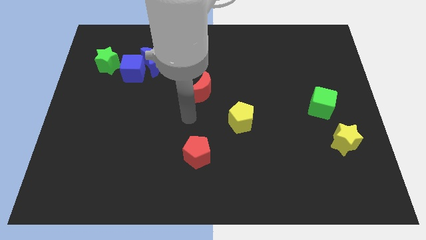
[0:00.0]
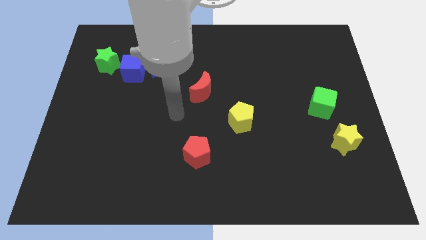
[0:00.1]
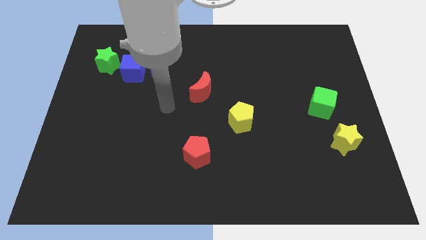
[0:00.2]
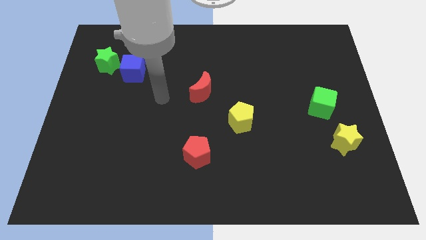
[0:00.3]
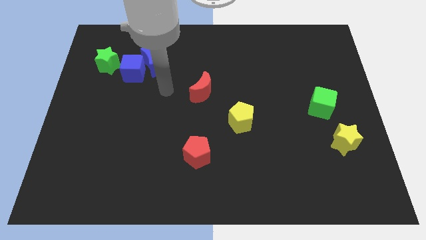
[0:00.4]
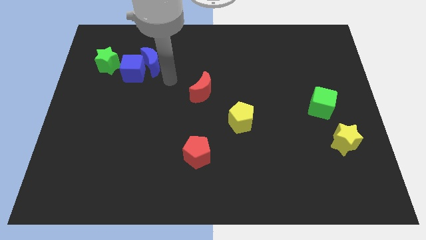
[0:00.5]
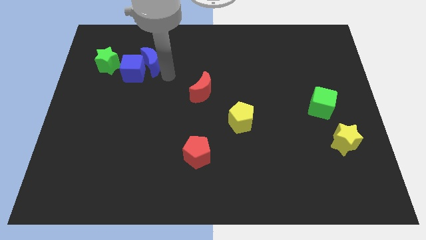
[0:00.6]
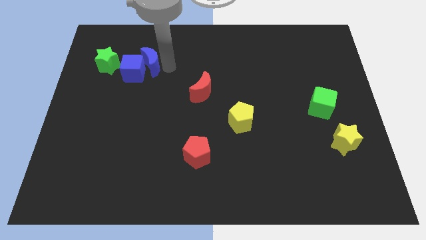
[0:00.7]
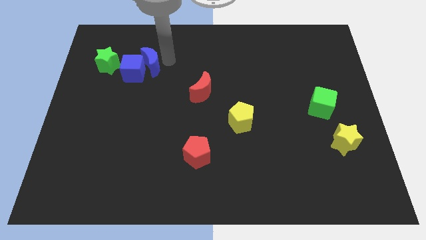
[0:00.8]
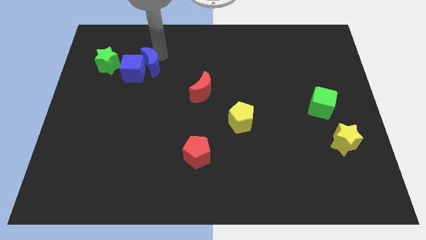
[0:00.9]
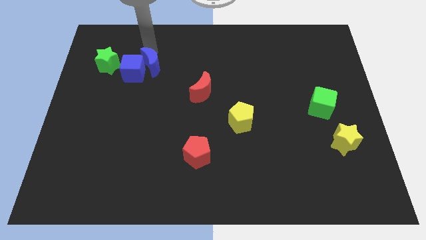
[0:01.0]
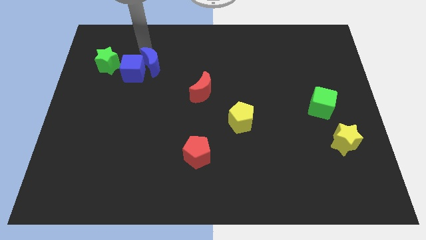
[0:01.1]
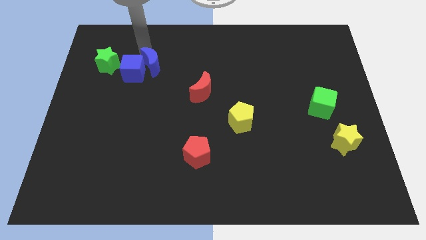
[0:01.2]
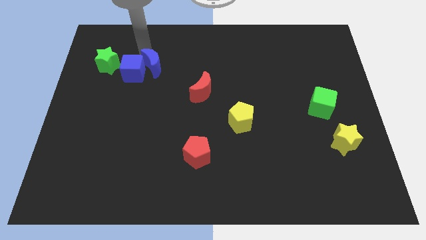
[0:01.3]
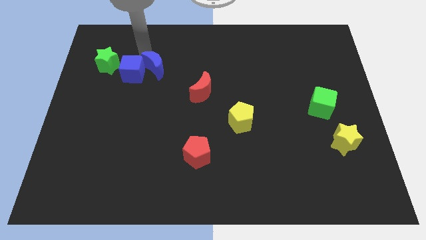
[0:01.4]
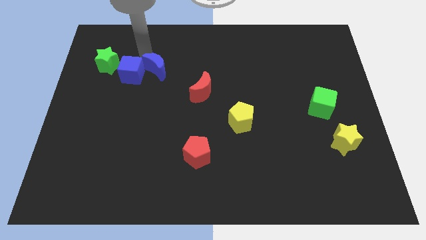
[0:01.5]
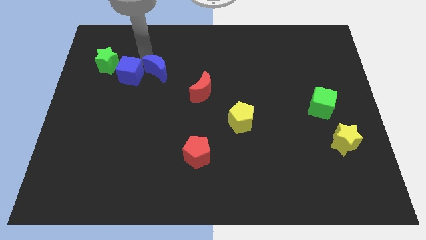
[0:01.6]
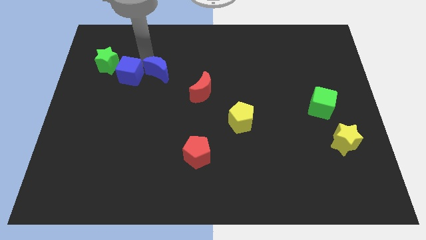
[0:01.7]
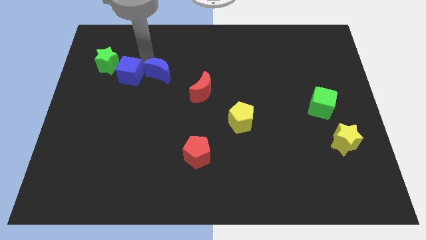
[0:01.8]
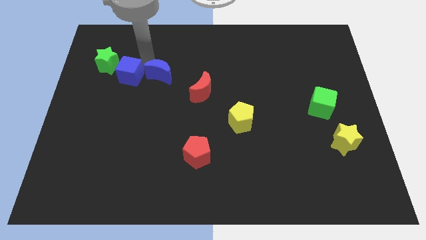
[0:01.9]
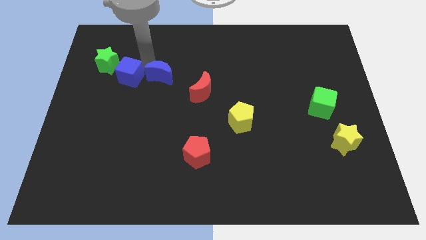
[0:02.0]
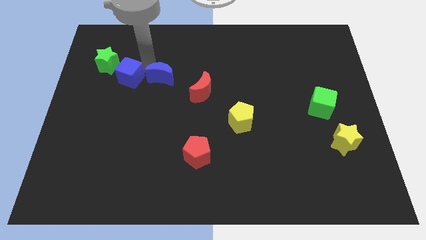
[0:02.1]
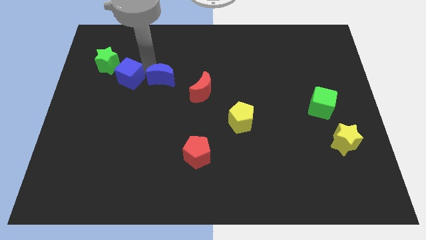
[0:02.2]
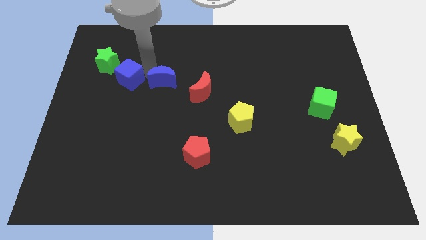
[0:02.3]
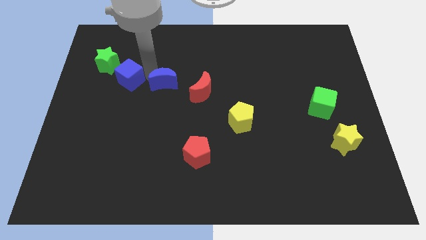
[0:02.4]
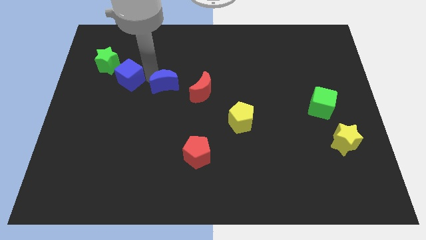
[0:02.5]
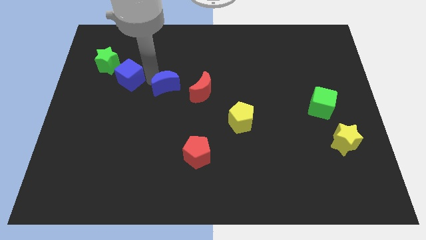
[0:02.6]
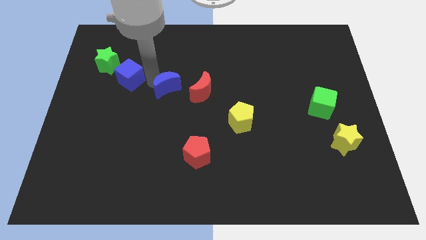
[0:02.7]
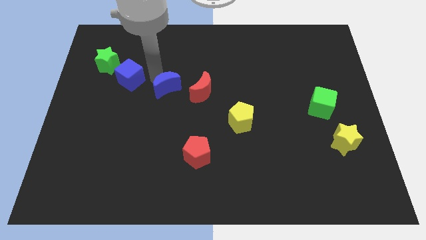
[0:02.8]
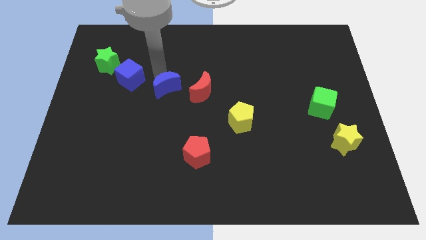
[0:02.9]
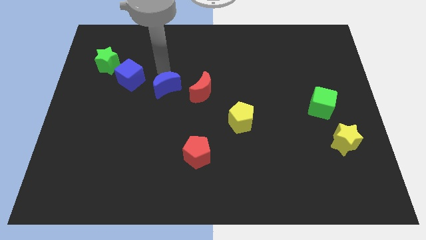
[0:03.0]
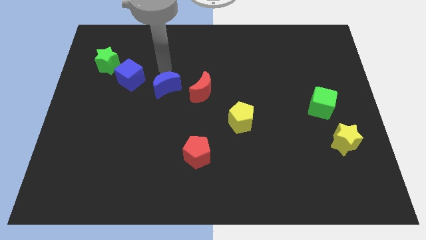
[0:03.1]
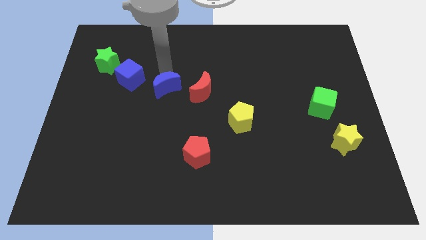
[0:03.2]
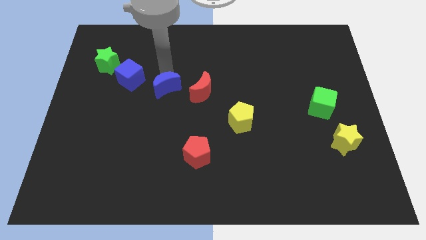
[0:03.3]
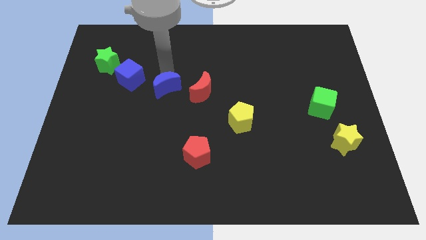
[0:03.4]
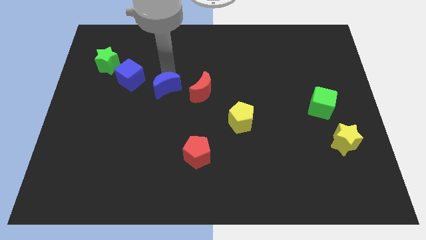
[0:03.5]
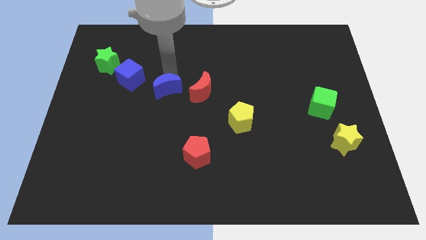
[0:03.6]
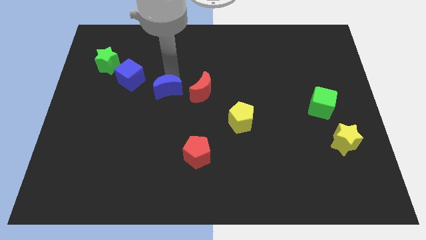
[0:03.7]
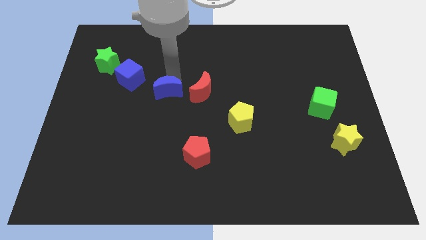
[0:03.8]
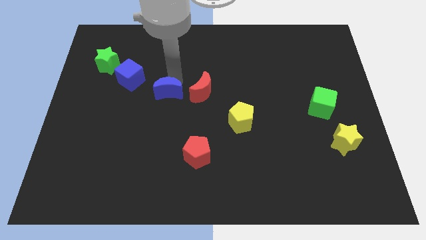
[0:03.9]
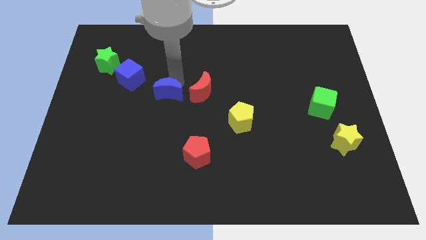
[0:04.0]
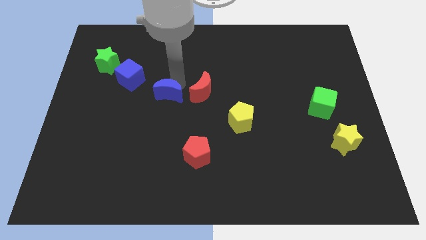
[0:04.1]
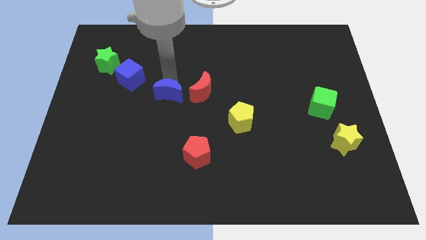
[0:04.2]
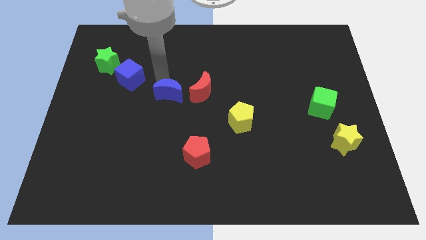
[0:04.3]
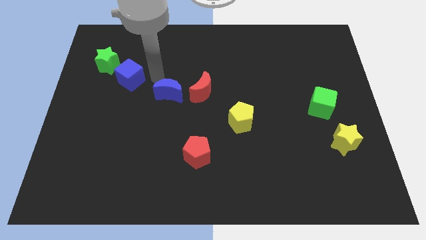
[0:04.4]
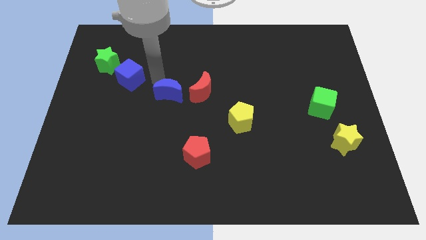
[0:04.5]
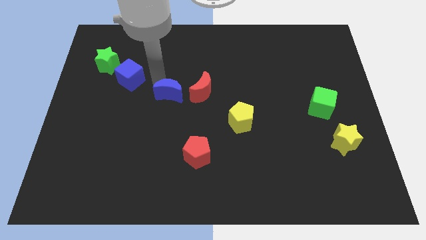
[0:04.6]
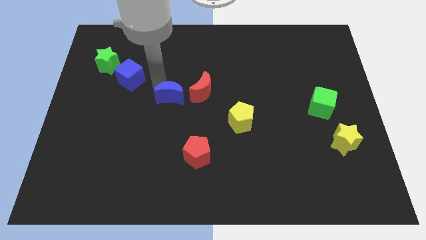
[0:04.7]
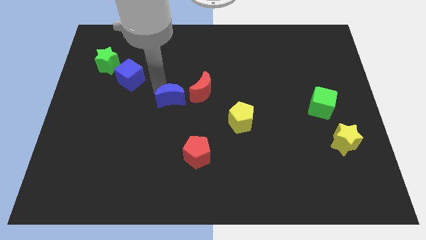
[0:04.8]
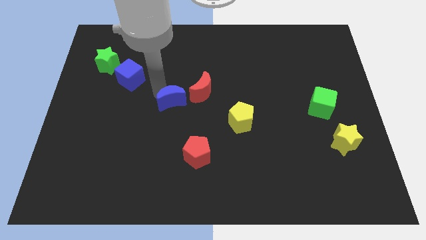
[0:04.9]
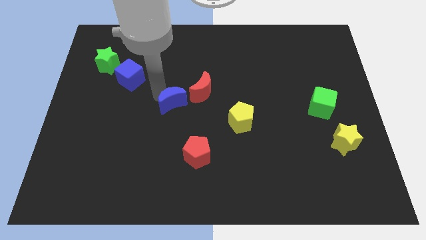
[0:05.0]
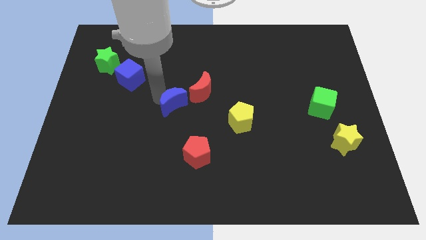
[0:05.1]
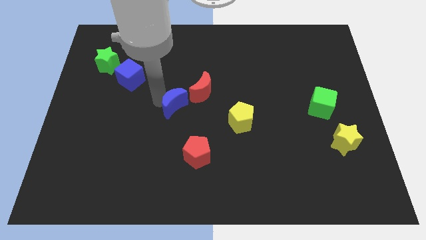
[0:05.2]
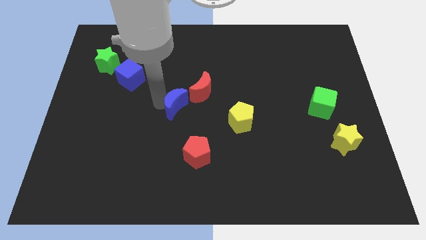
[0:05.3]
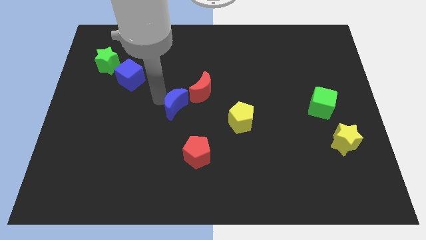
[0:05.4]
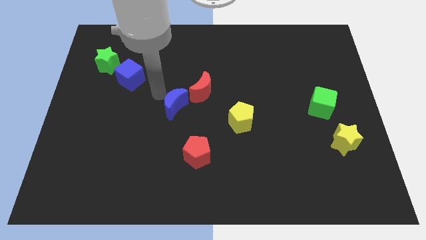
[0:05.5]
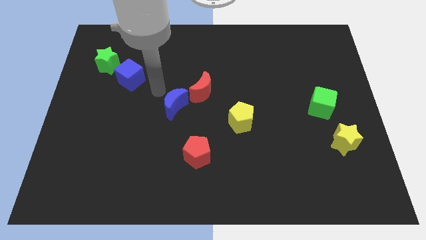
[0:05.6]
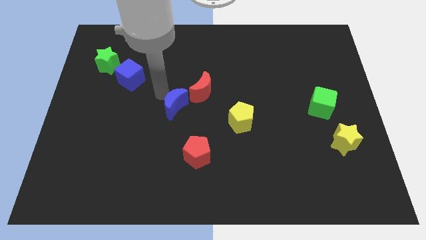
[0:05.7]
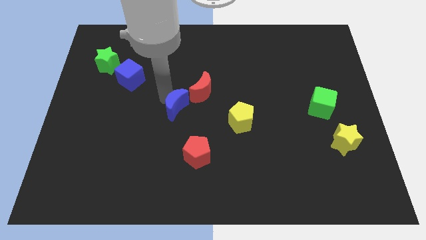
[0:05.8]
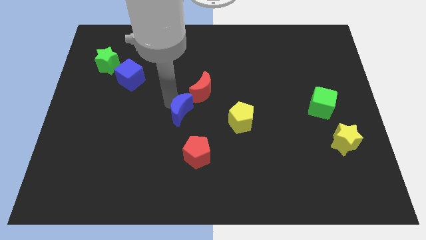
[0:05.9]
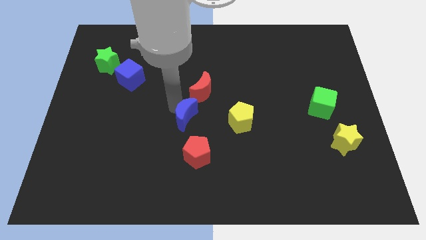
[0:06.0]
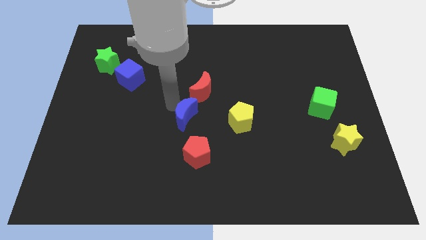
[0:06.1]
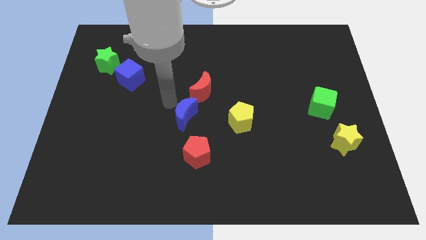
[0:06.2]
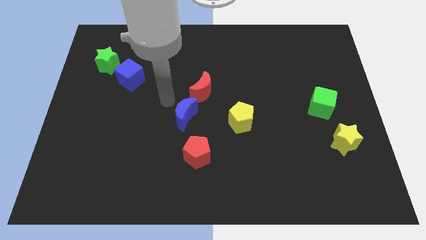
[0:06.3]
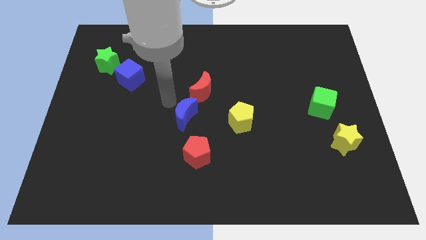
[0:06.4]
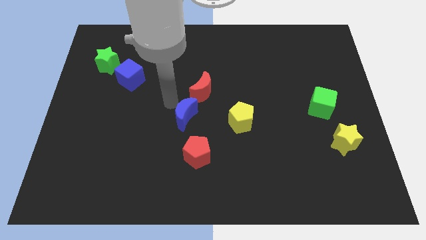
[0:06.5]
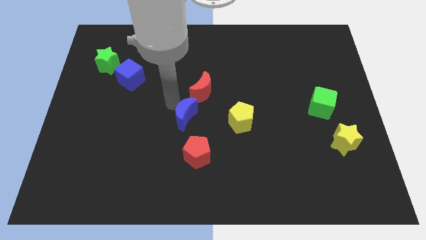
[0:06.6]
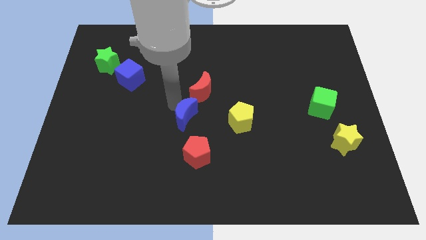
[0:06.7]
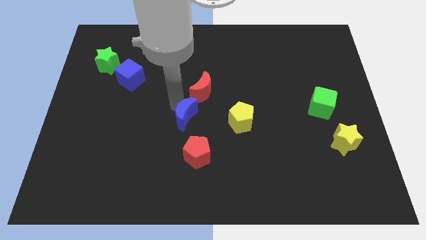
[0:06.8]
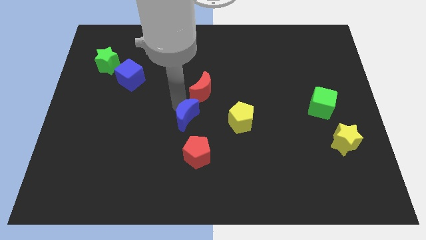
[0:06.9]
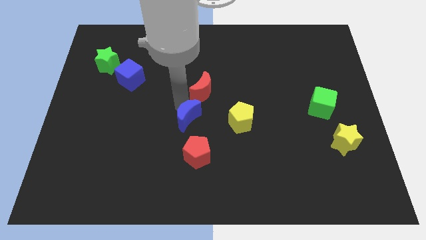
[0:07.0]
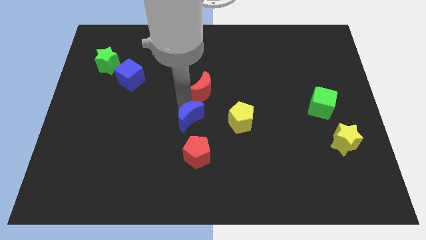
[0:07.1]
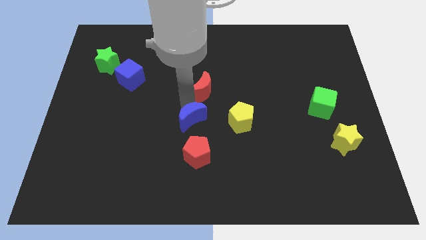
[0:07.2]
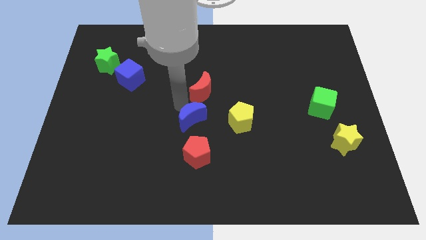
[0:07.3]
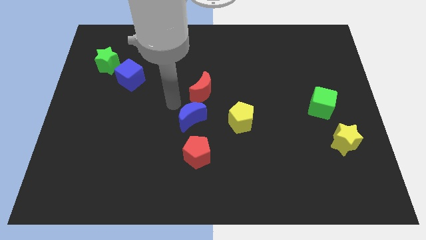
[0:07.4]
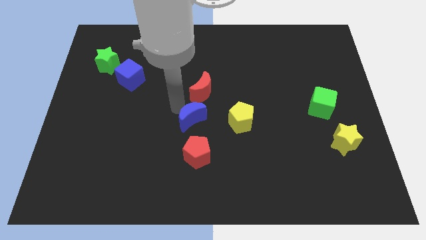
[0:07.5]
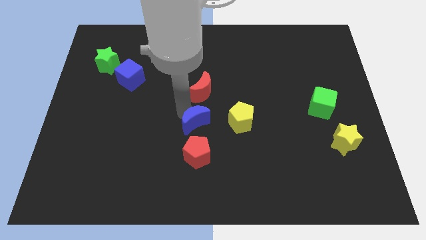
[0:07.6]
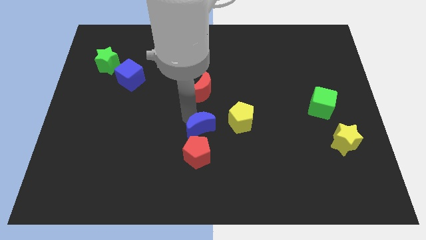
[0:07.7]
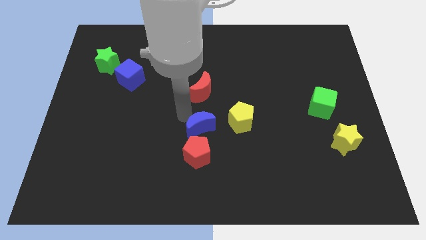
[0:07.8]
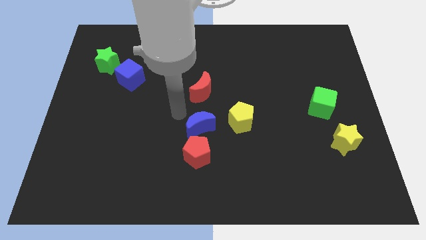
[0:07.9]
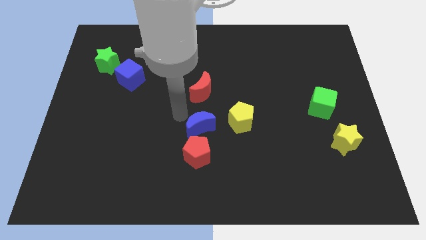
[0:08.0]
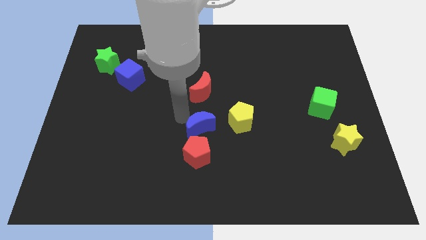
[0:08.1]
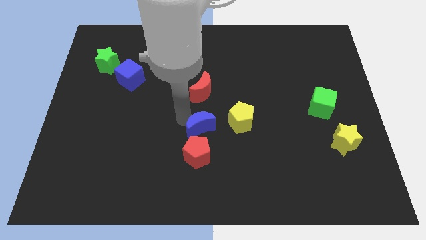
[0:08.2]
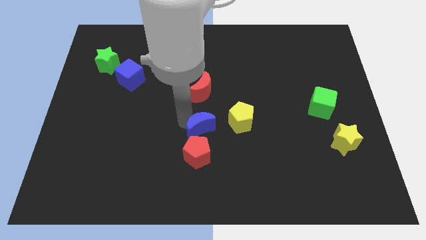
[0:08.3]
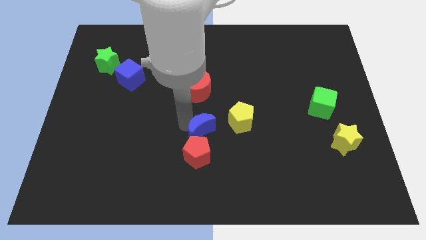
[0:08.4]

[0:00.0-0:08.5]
slide the blue moon to the bottom left side of the yellow pentagon
